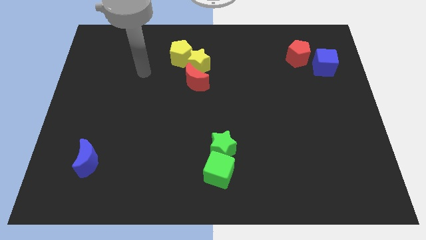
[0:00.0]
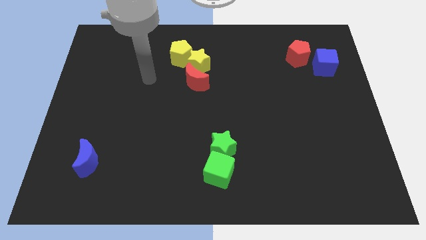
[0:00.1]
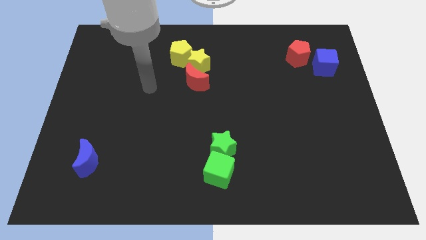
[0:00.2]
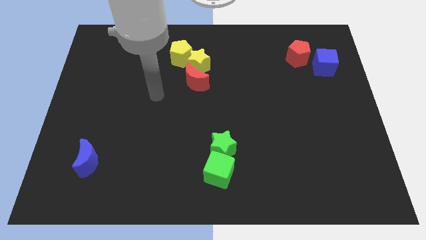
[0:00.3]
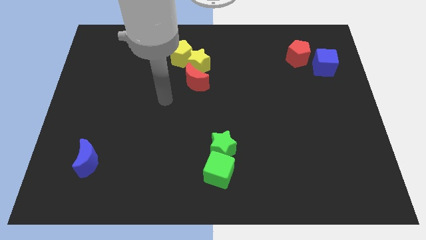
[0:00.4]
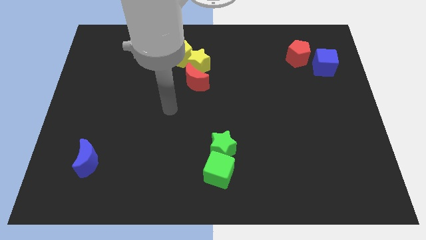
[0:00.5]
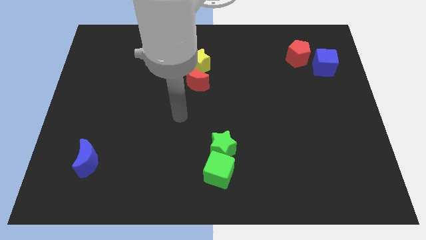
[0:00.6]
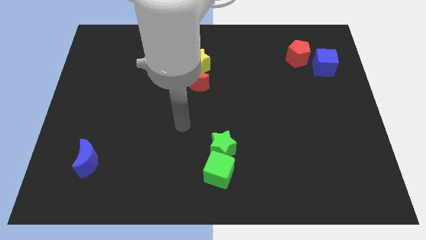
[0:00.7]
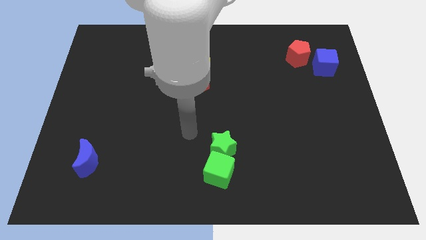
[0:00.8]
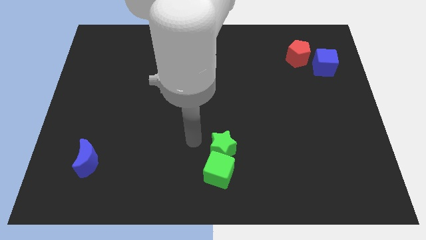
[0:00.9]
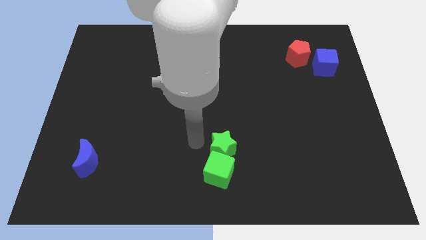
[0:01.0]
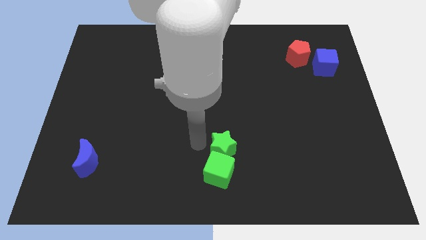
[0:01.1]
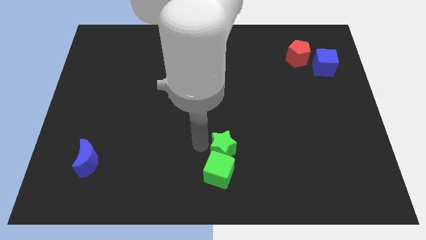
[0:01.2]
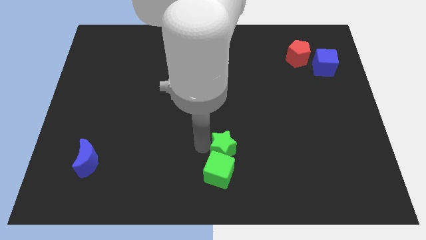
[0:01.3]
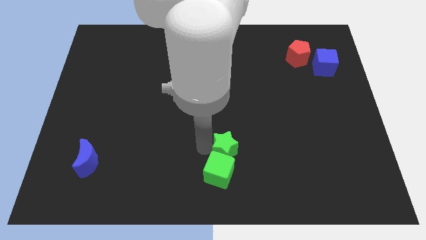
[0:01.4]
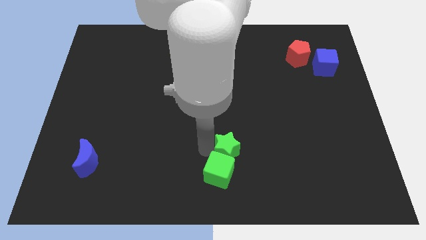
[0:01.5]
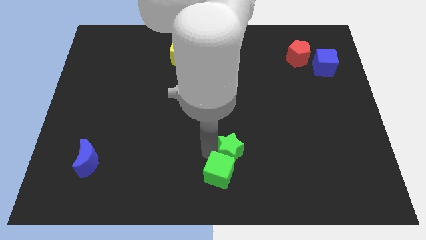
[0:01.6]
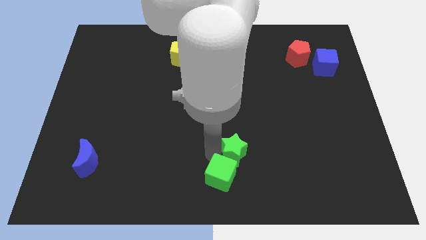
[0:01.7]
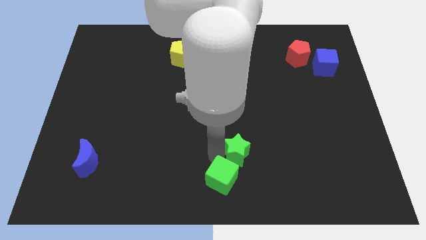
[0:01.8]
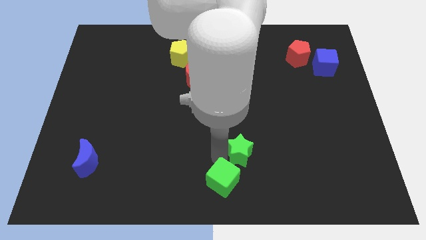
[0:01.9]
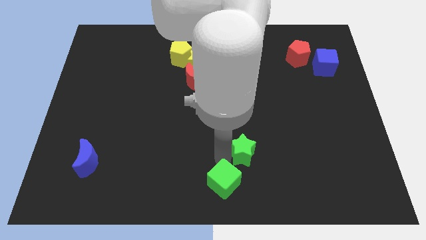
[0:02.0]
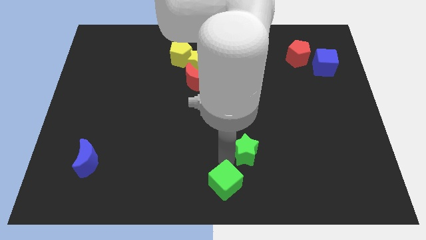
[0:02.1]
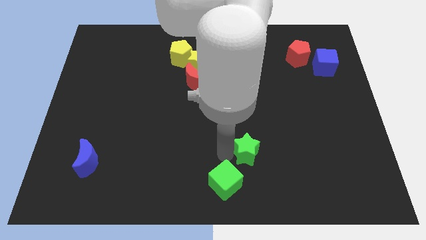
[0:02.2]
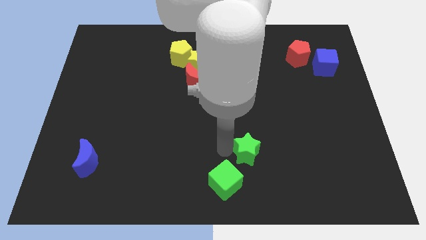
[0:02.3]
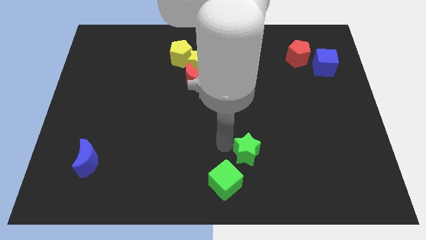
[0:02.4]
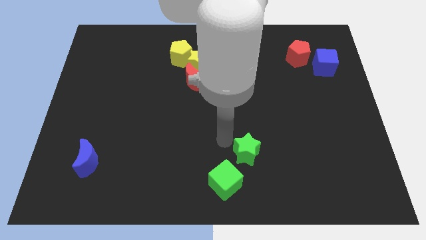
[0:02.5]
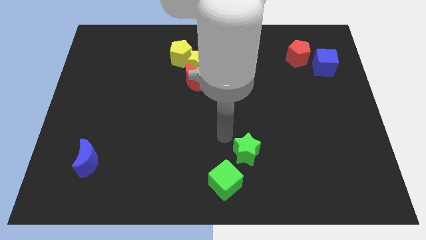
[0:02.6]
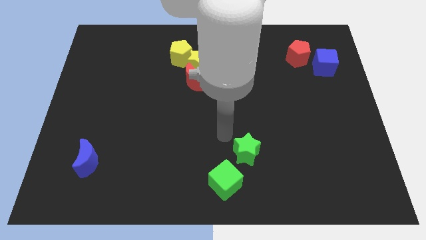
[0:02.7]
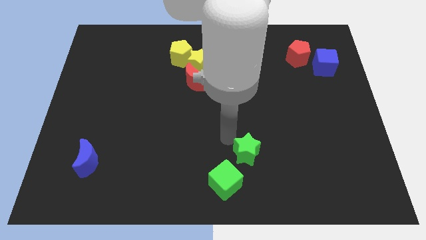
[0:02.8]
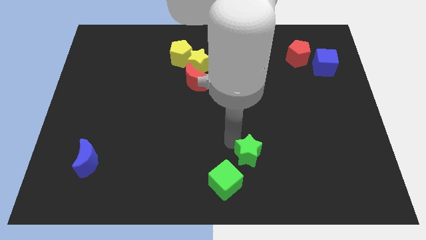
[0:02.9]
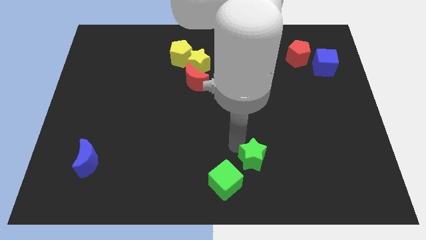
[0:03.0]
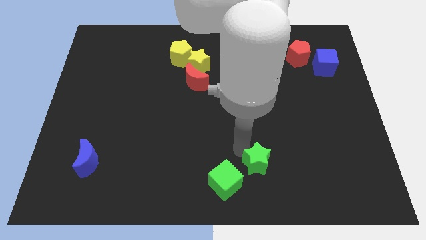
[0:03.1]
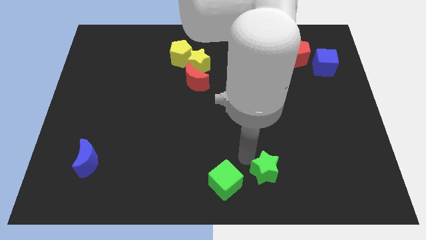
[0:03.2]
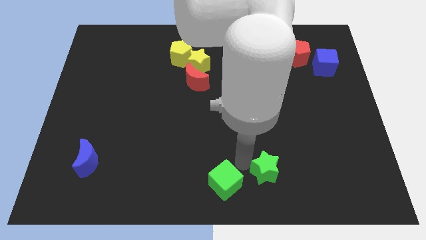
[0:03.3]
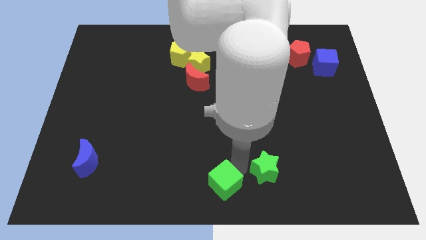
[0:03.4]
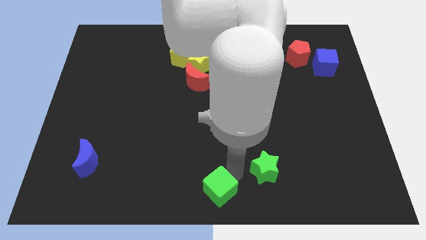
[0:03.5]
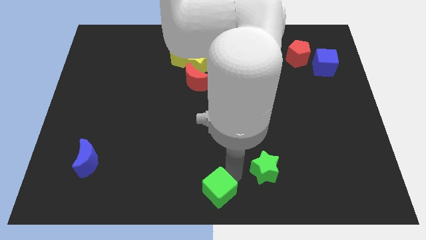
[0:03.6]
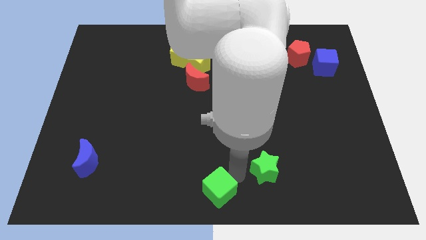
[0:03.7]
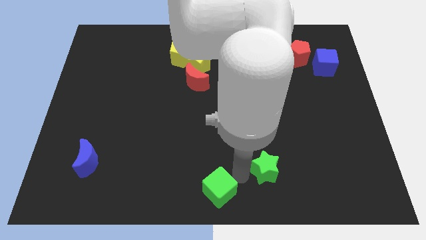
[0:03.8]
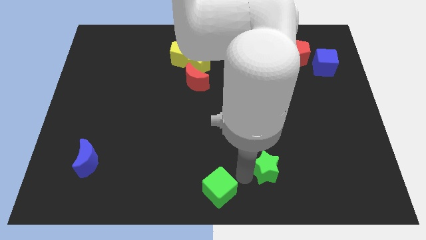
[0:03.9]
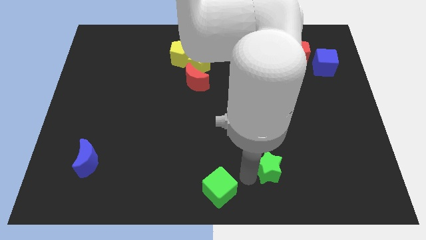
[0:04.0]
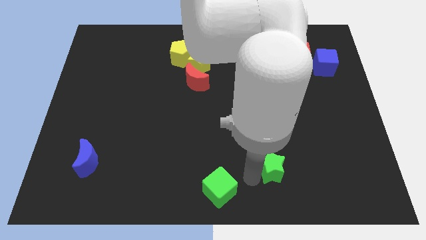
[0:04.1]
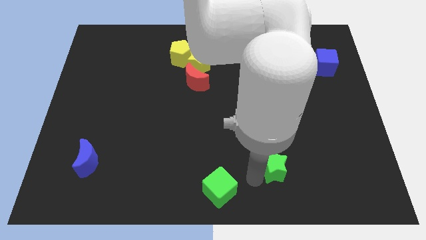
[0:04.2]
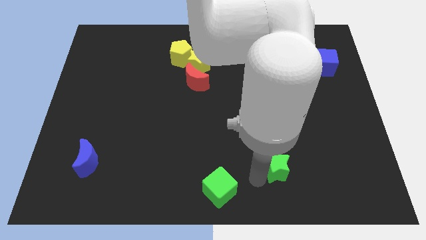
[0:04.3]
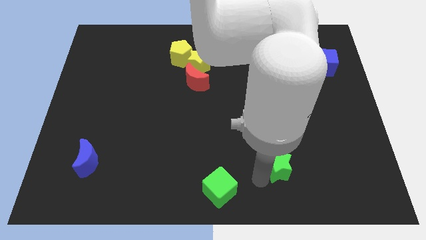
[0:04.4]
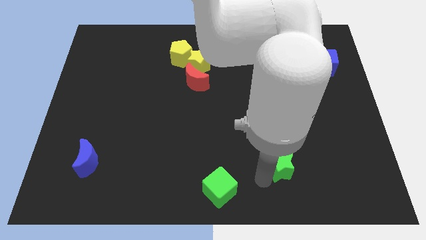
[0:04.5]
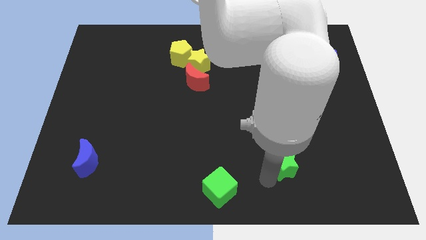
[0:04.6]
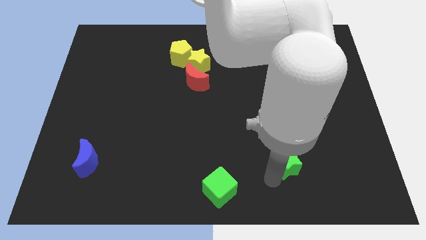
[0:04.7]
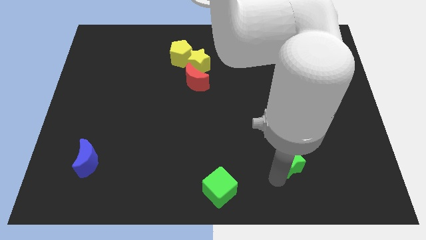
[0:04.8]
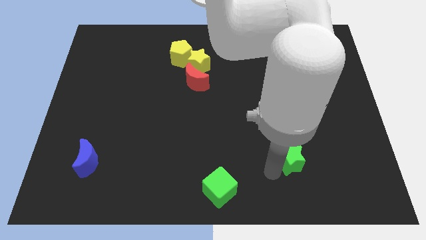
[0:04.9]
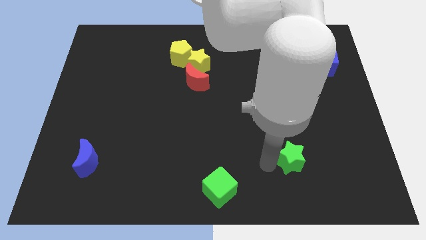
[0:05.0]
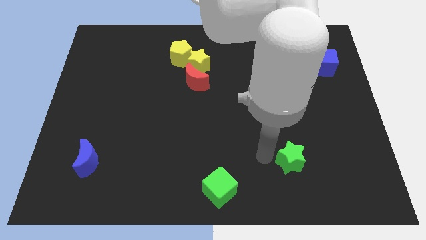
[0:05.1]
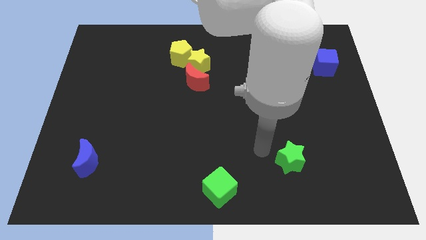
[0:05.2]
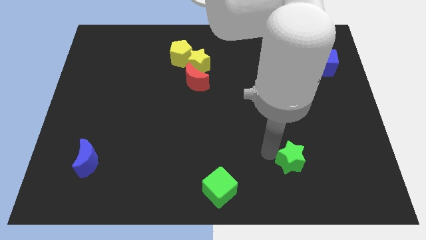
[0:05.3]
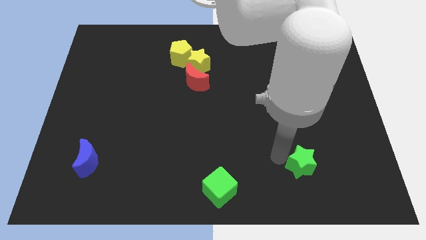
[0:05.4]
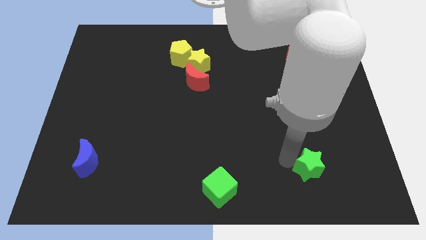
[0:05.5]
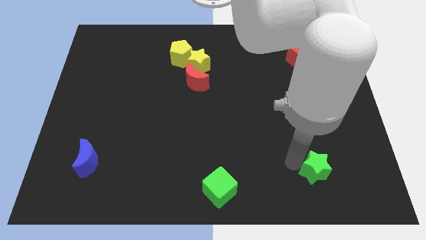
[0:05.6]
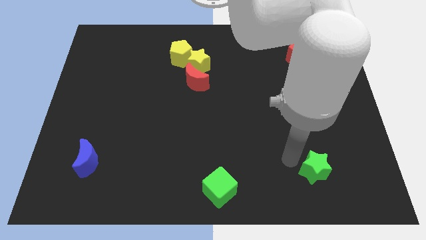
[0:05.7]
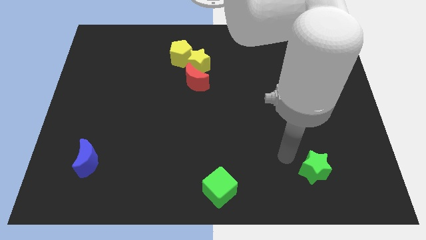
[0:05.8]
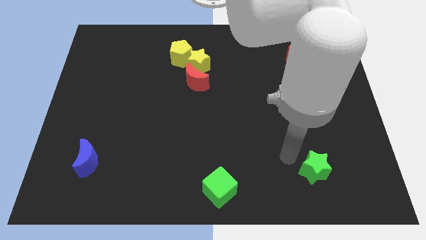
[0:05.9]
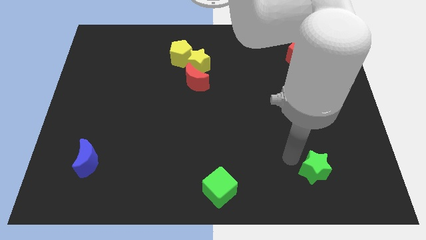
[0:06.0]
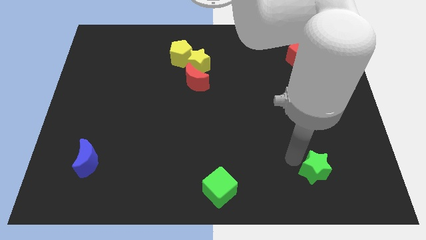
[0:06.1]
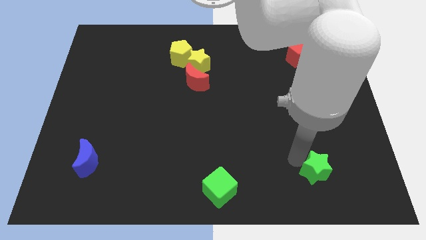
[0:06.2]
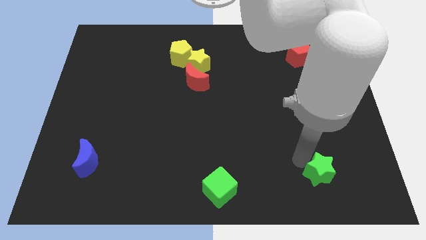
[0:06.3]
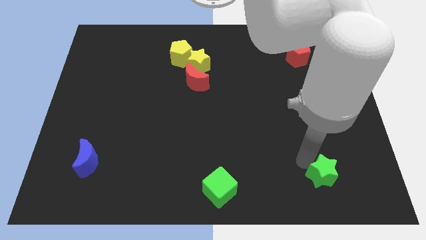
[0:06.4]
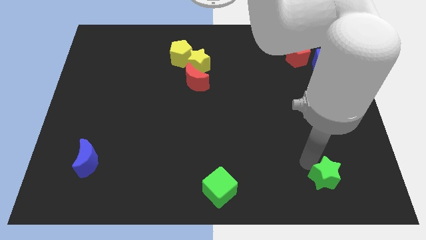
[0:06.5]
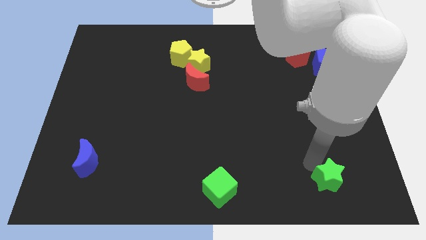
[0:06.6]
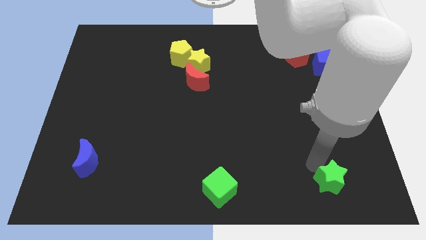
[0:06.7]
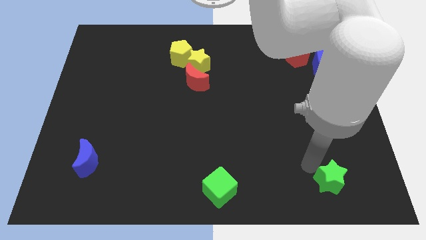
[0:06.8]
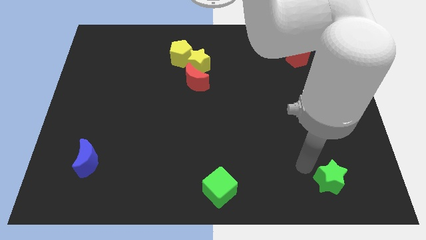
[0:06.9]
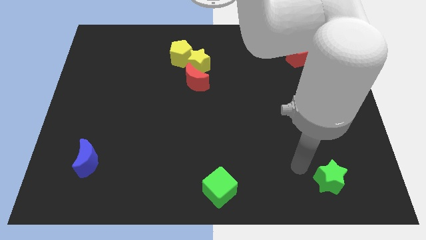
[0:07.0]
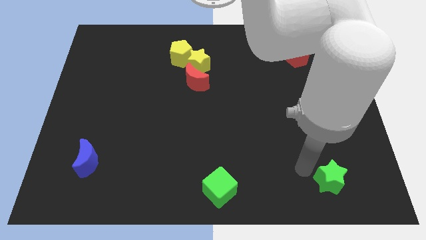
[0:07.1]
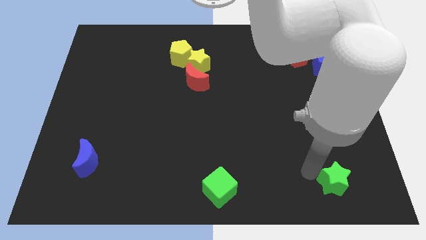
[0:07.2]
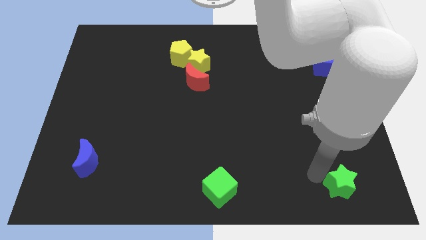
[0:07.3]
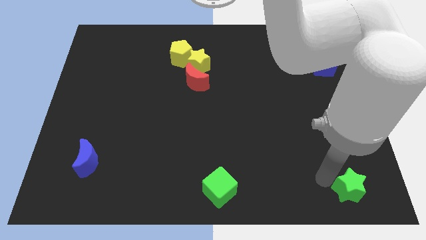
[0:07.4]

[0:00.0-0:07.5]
move the green star to the bottom right
